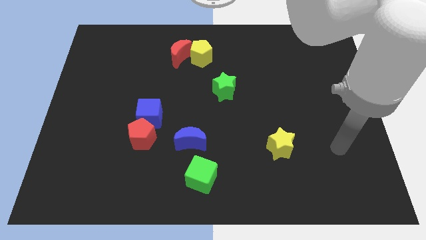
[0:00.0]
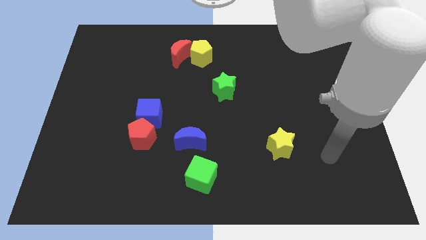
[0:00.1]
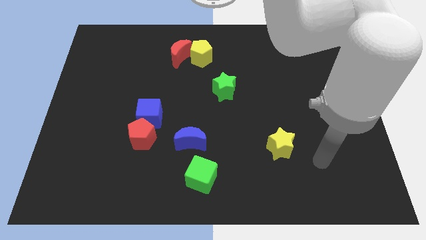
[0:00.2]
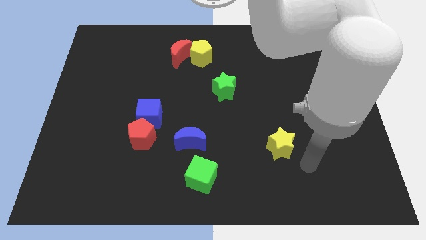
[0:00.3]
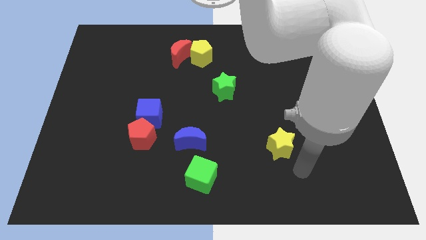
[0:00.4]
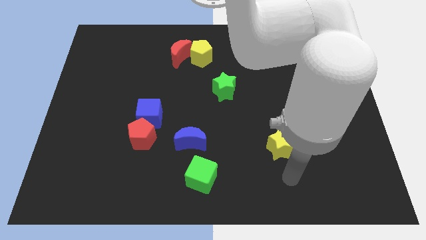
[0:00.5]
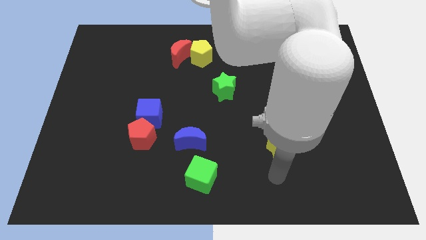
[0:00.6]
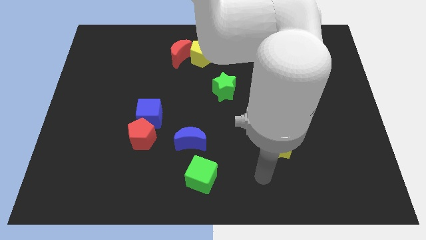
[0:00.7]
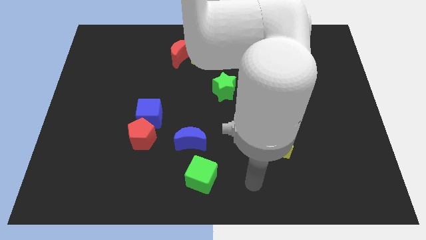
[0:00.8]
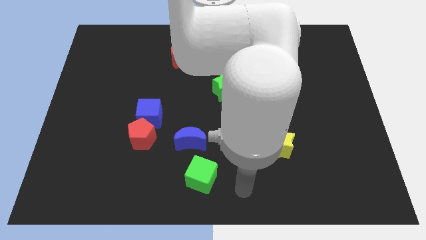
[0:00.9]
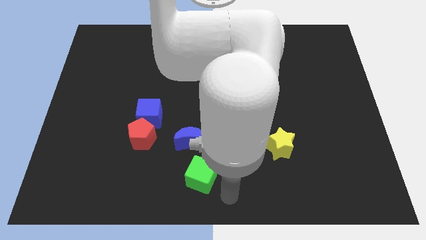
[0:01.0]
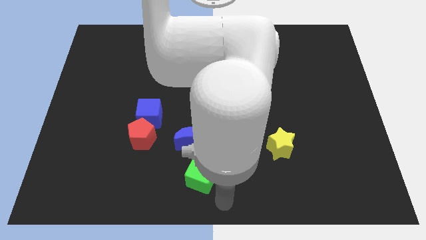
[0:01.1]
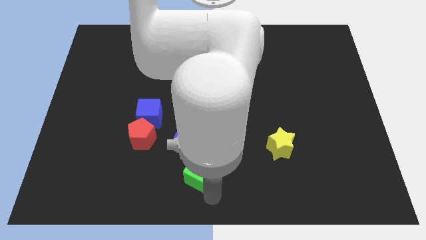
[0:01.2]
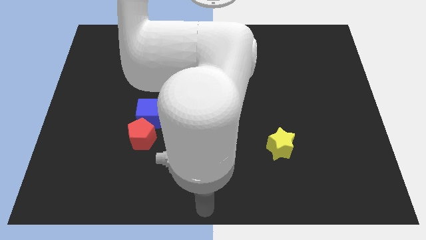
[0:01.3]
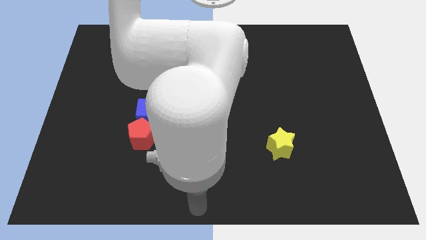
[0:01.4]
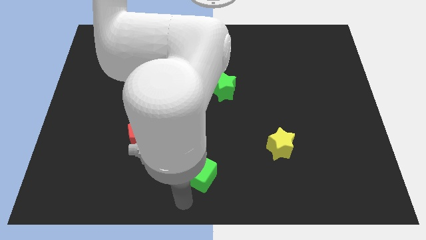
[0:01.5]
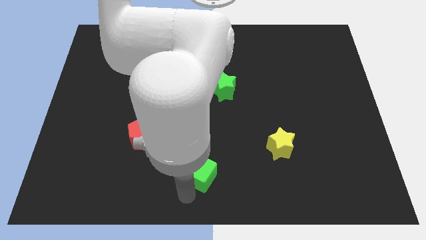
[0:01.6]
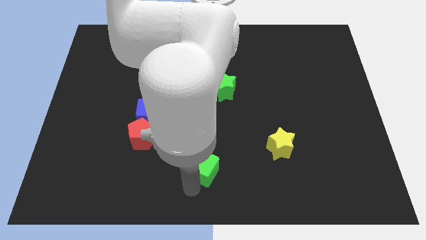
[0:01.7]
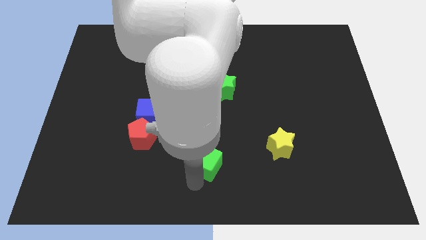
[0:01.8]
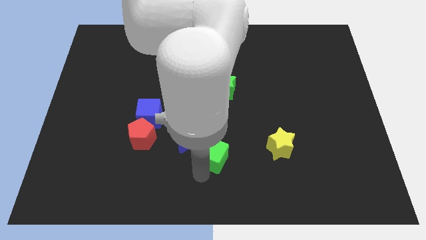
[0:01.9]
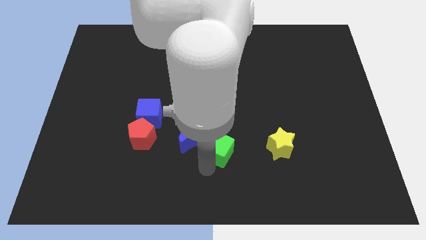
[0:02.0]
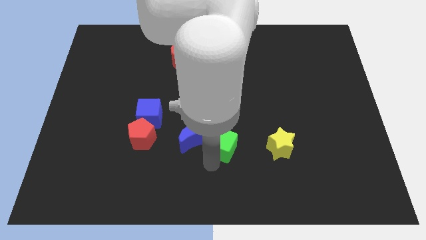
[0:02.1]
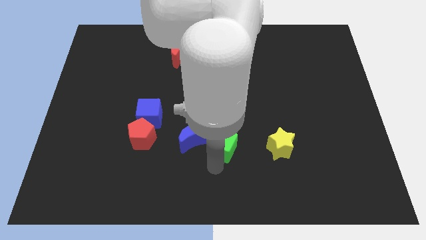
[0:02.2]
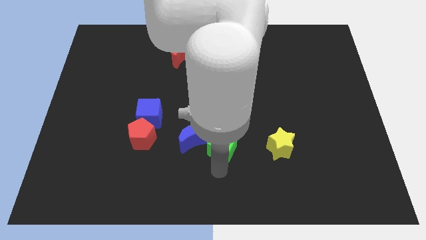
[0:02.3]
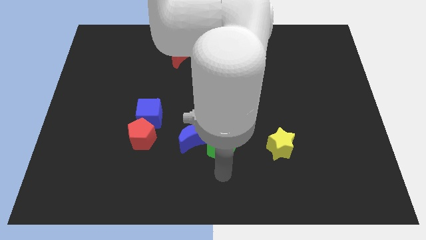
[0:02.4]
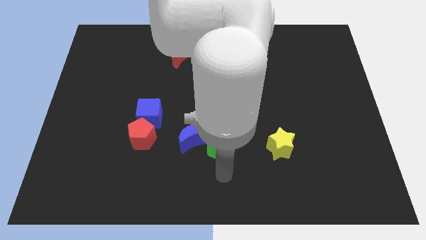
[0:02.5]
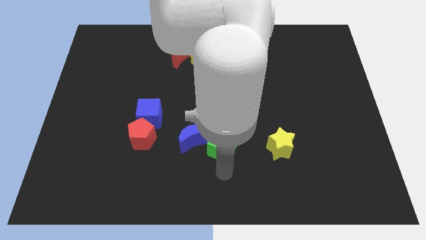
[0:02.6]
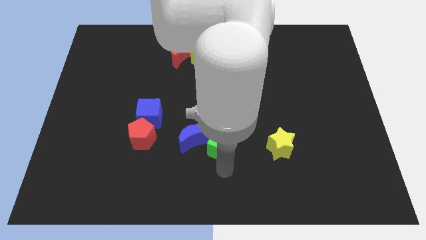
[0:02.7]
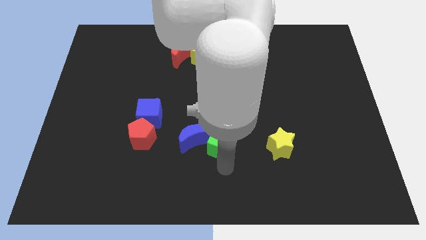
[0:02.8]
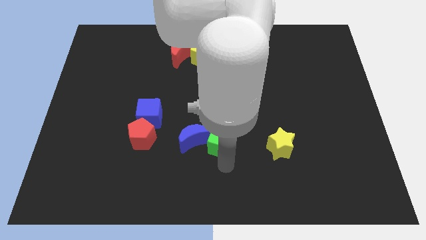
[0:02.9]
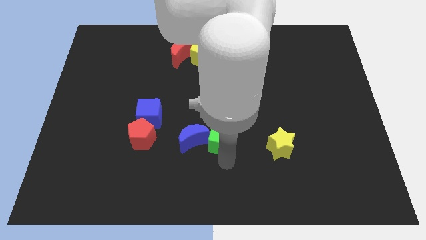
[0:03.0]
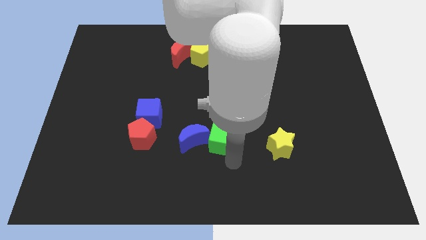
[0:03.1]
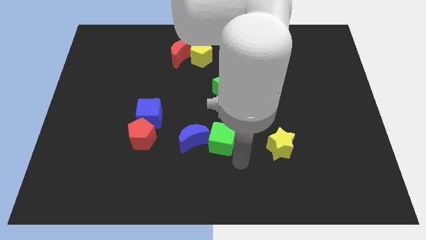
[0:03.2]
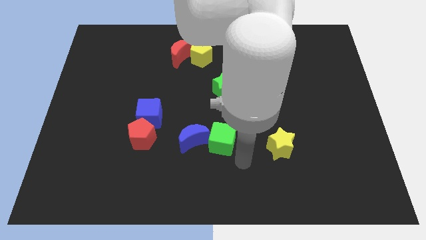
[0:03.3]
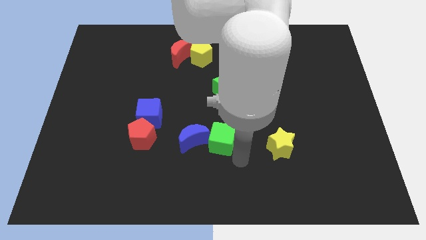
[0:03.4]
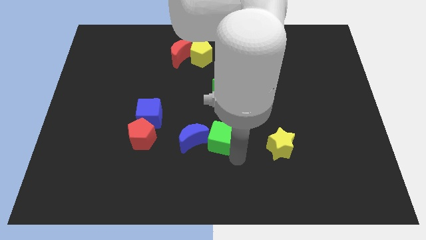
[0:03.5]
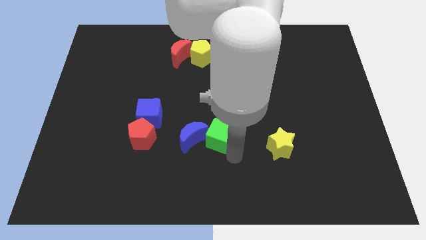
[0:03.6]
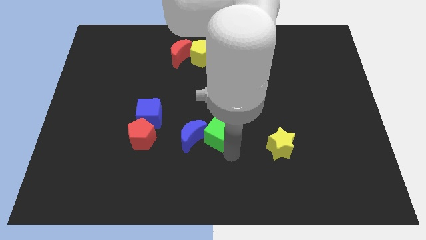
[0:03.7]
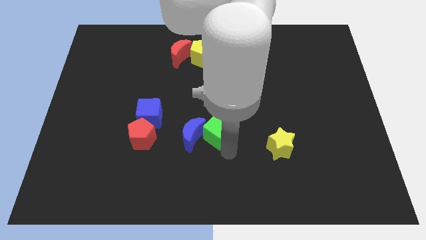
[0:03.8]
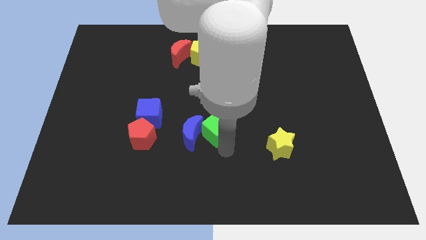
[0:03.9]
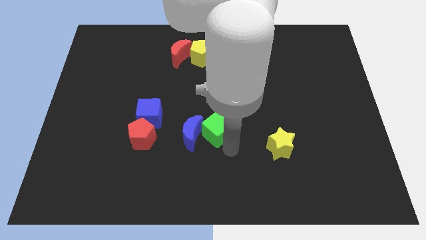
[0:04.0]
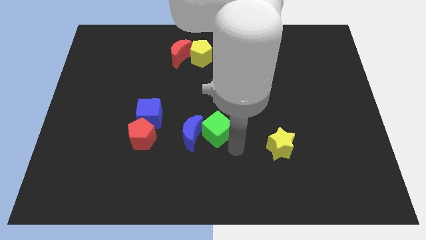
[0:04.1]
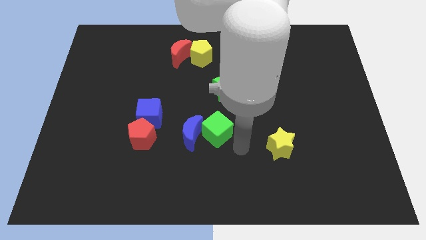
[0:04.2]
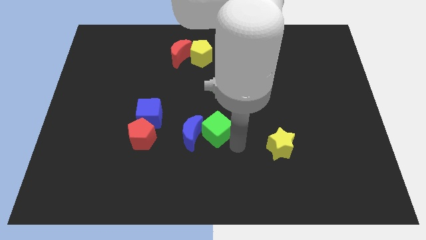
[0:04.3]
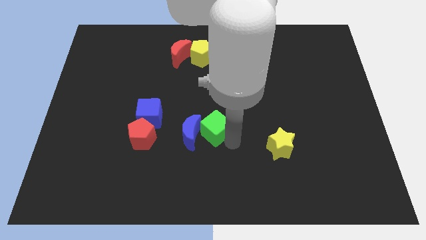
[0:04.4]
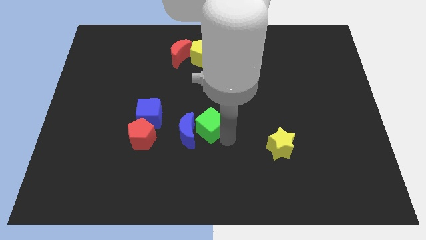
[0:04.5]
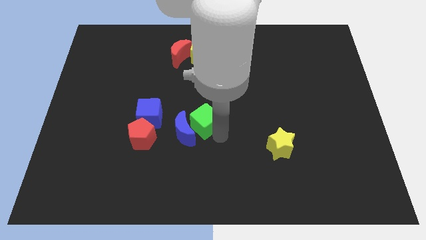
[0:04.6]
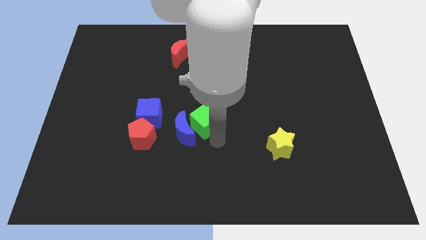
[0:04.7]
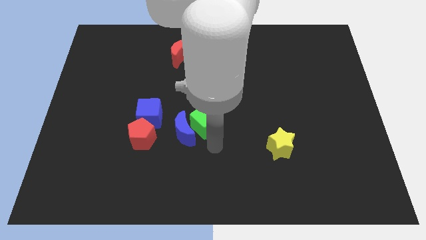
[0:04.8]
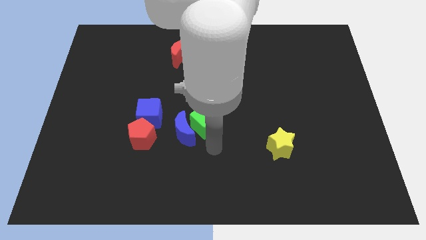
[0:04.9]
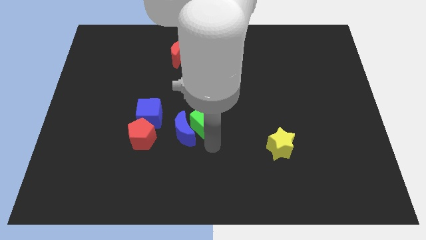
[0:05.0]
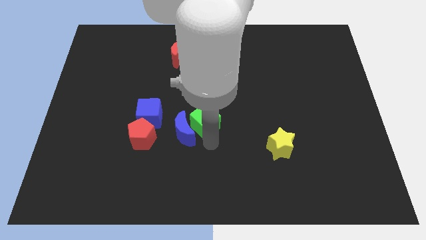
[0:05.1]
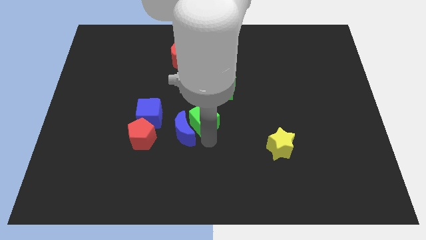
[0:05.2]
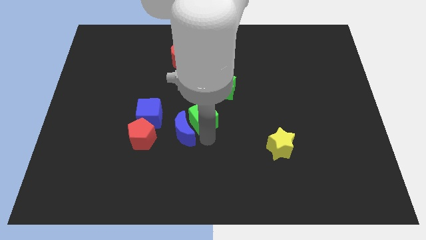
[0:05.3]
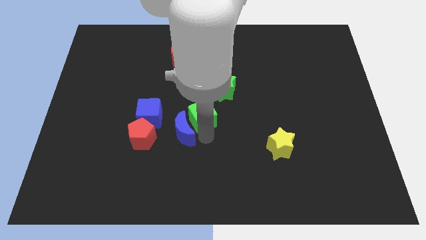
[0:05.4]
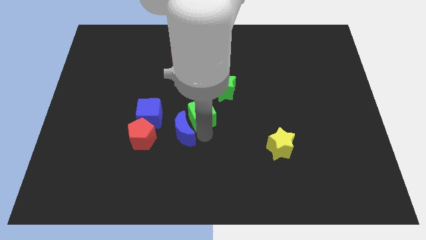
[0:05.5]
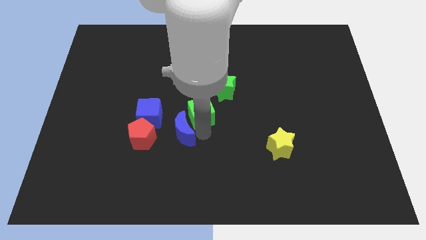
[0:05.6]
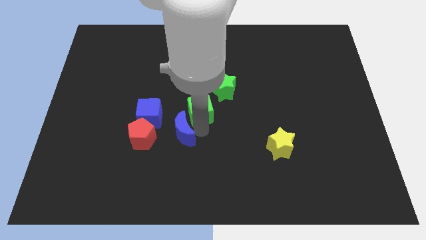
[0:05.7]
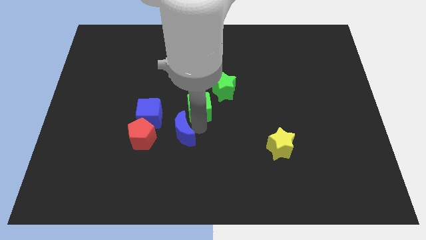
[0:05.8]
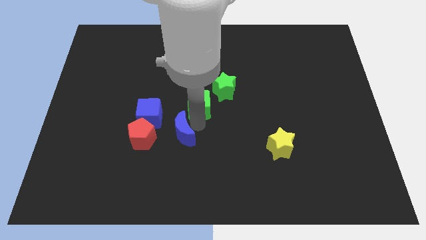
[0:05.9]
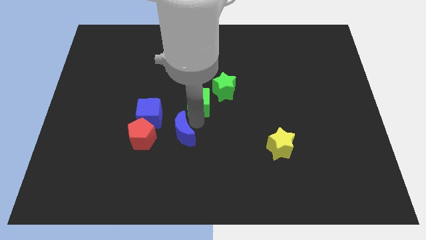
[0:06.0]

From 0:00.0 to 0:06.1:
move the green cube below the yellow pentagon
